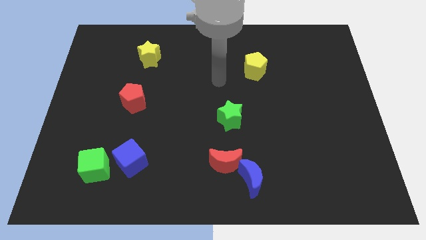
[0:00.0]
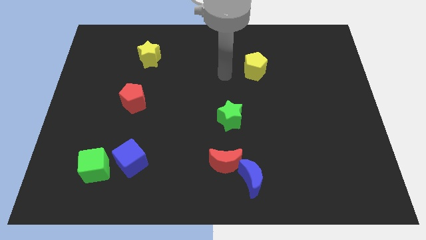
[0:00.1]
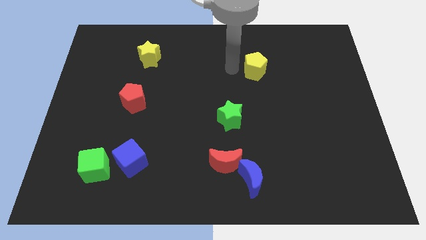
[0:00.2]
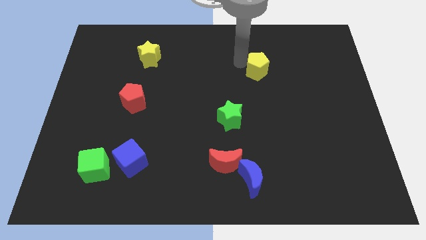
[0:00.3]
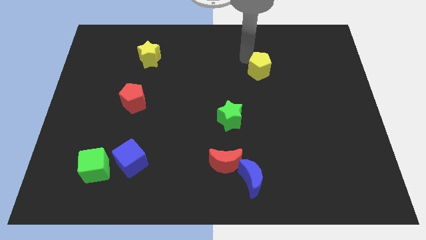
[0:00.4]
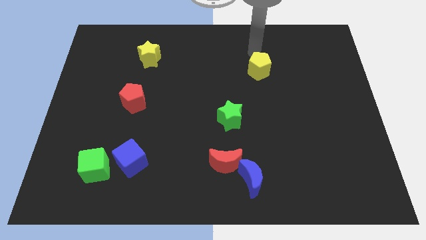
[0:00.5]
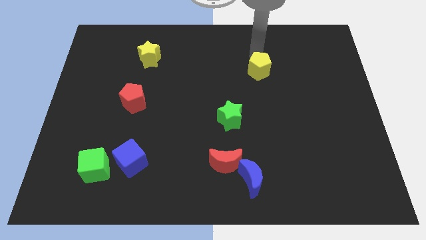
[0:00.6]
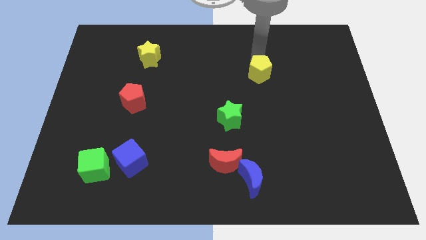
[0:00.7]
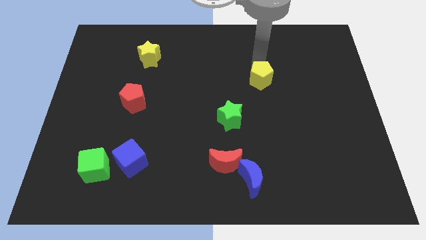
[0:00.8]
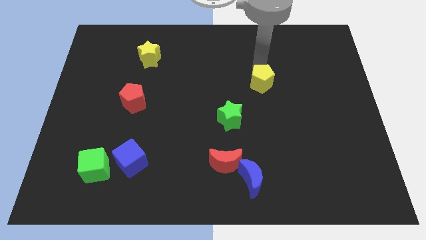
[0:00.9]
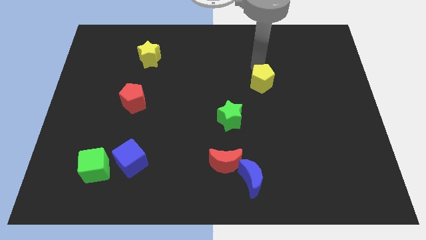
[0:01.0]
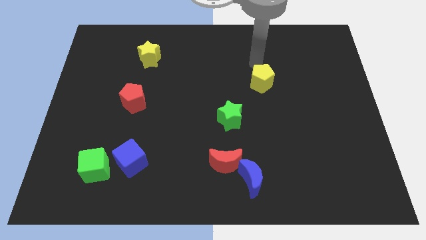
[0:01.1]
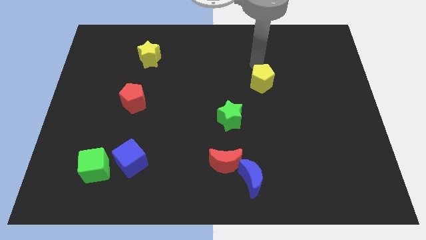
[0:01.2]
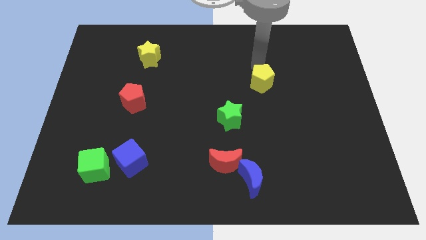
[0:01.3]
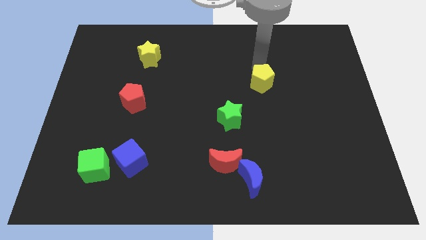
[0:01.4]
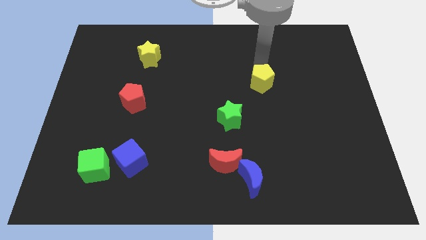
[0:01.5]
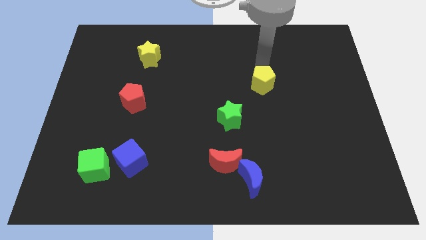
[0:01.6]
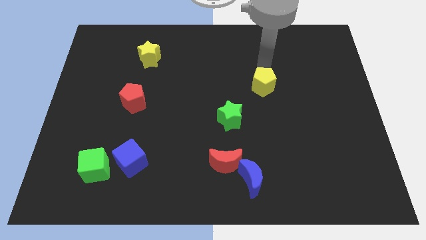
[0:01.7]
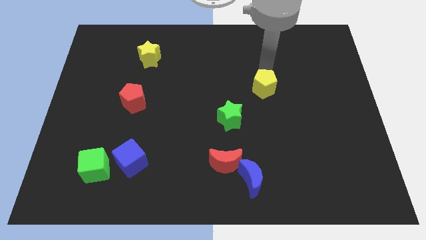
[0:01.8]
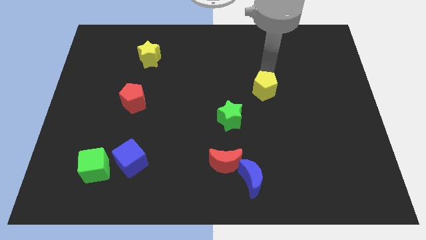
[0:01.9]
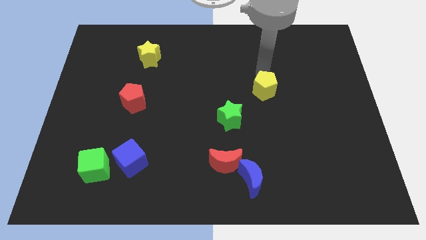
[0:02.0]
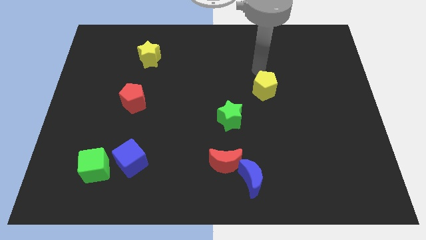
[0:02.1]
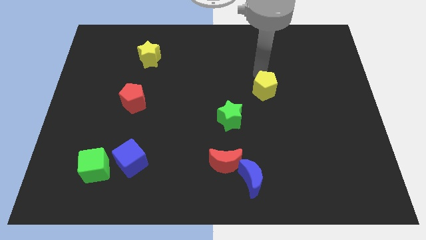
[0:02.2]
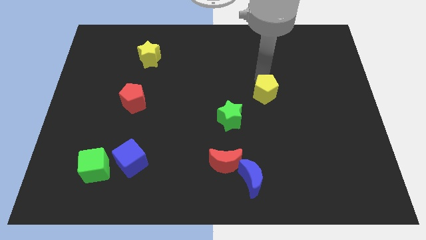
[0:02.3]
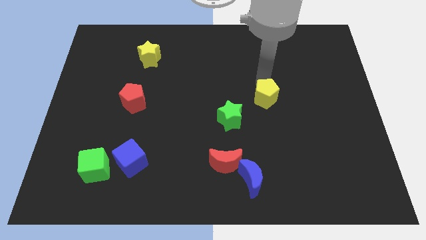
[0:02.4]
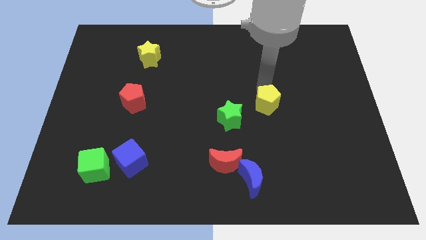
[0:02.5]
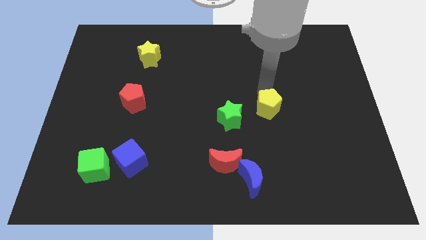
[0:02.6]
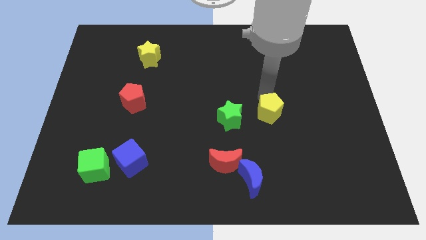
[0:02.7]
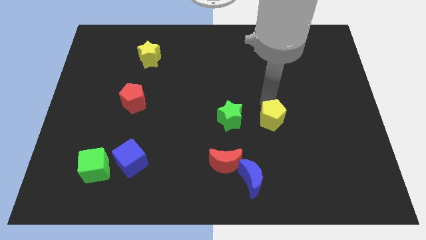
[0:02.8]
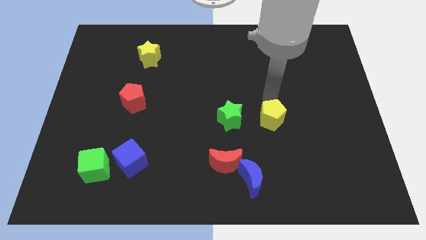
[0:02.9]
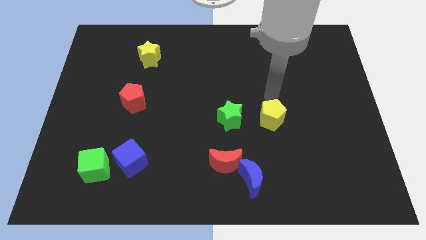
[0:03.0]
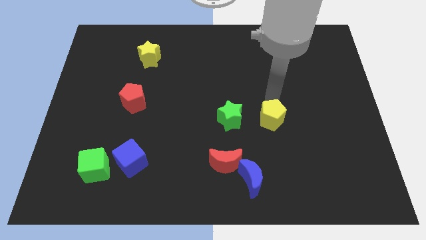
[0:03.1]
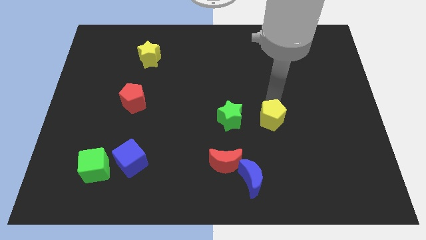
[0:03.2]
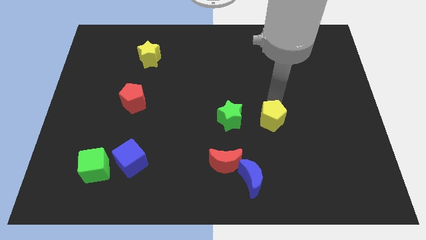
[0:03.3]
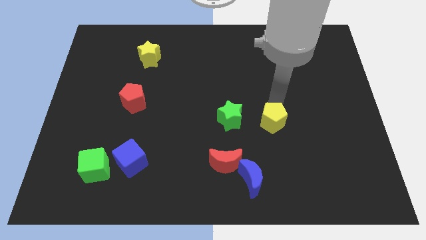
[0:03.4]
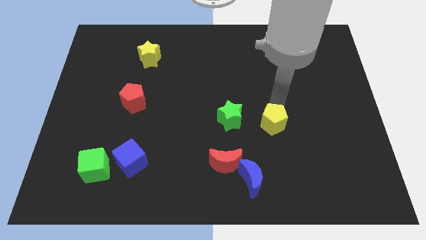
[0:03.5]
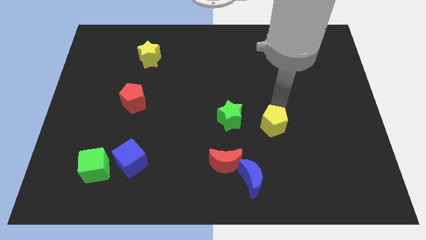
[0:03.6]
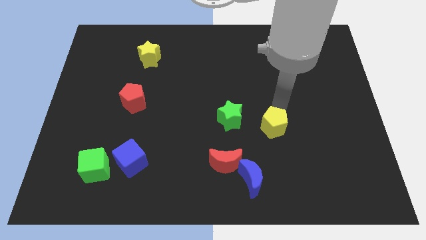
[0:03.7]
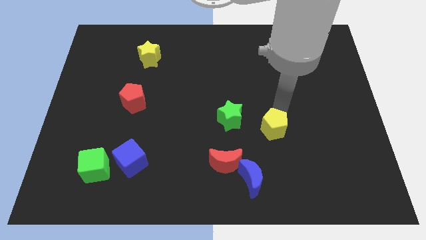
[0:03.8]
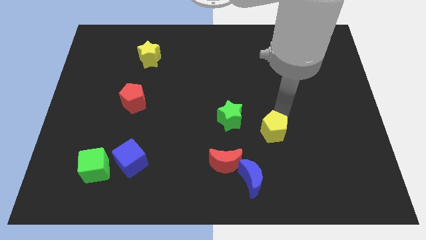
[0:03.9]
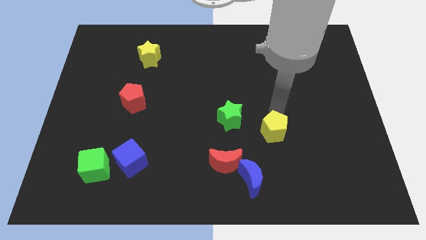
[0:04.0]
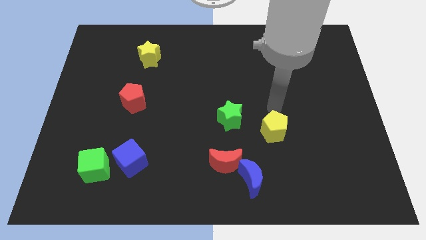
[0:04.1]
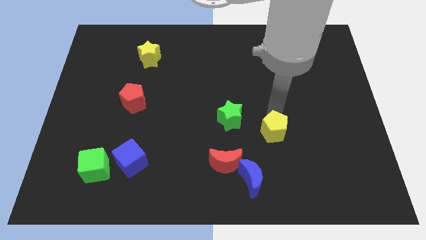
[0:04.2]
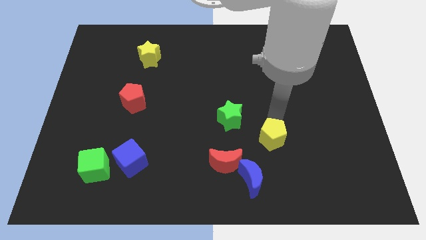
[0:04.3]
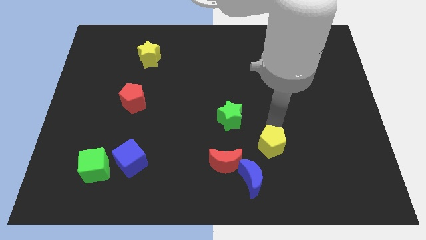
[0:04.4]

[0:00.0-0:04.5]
slide the yellow pentagon to the right of the red moon

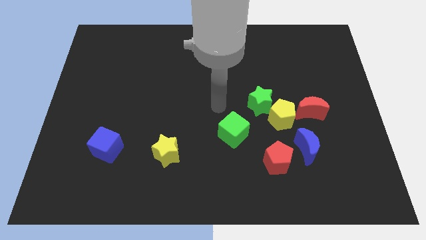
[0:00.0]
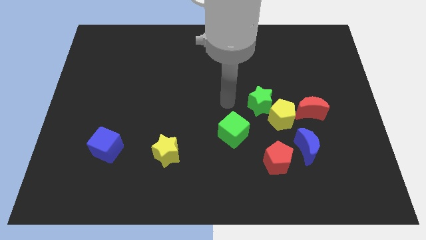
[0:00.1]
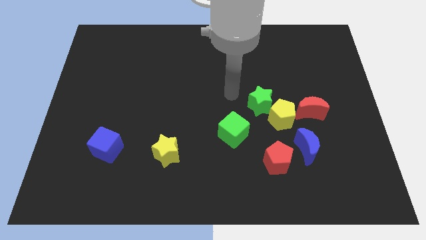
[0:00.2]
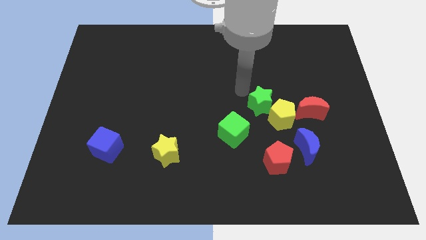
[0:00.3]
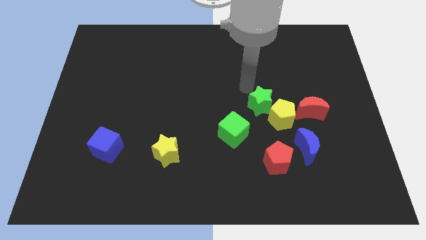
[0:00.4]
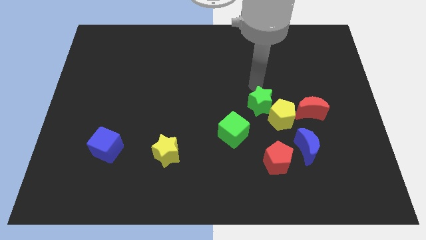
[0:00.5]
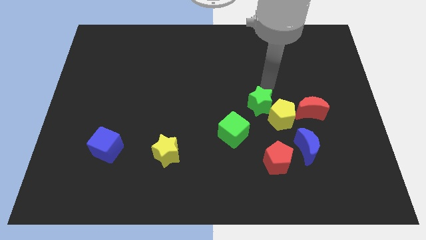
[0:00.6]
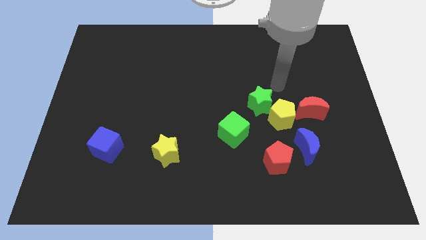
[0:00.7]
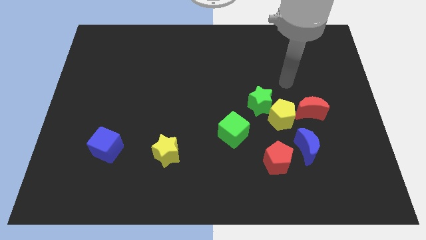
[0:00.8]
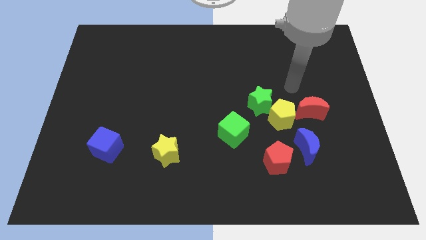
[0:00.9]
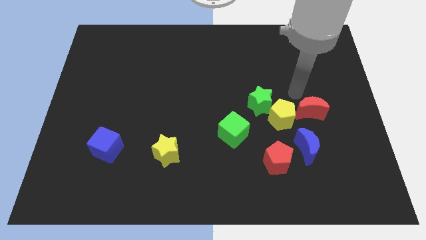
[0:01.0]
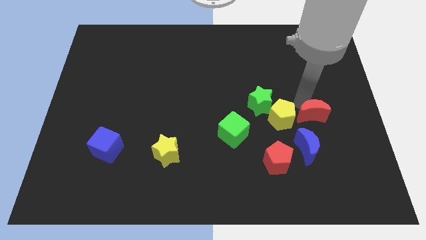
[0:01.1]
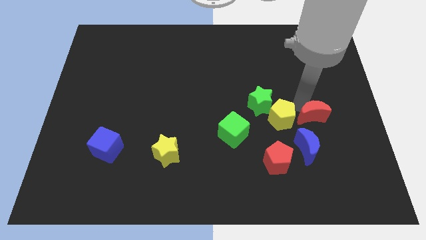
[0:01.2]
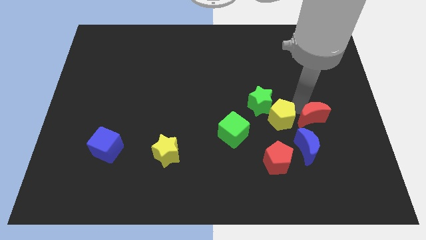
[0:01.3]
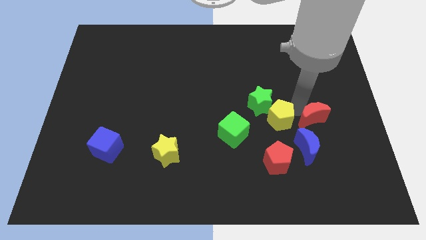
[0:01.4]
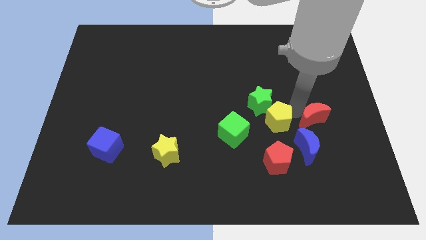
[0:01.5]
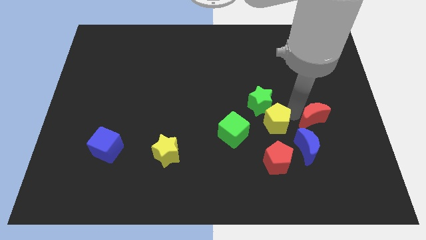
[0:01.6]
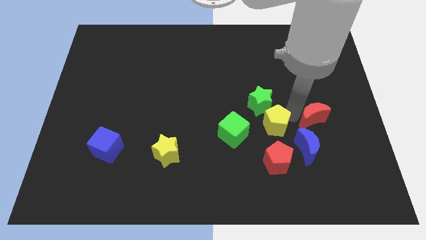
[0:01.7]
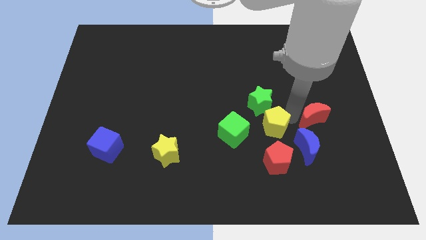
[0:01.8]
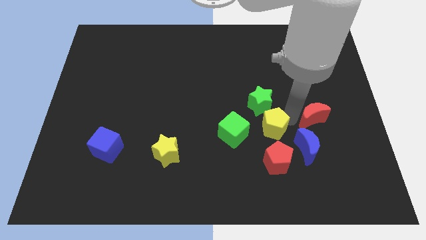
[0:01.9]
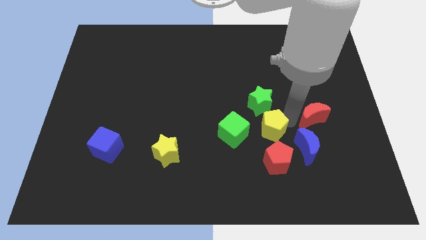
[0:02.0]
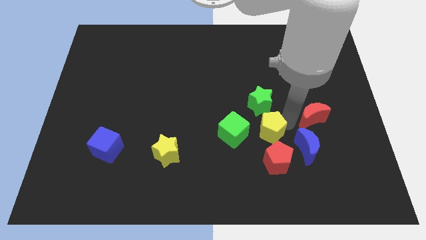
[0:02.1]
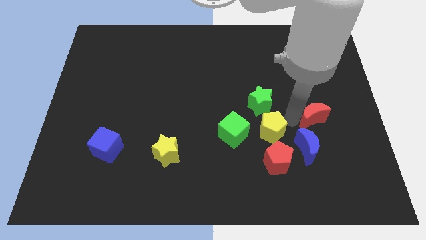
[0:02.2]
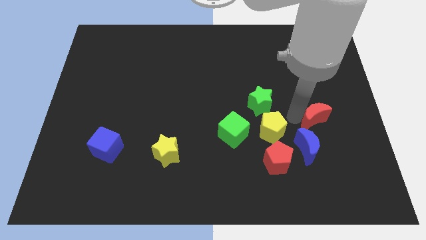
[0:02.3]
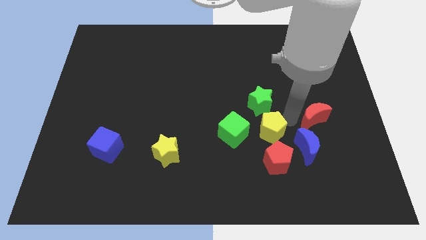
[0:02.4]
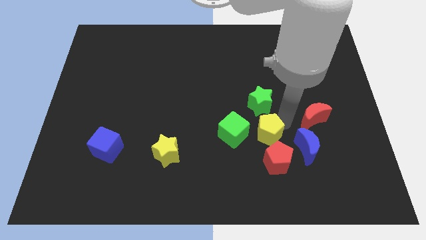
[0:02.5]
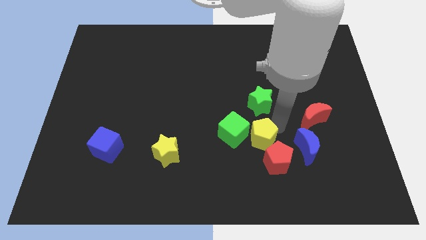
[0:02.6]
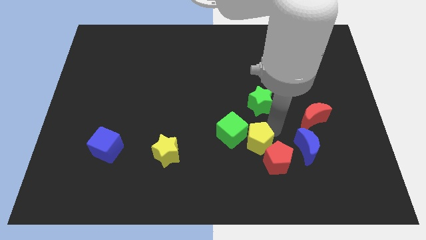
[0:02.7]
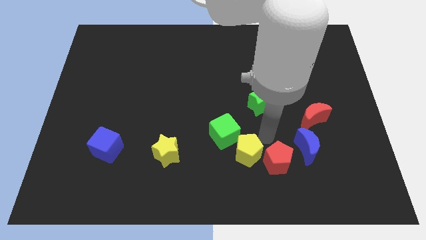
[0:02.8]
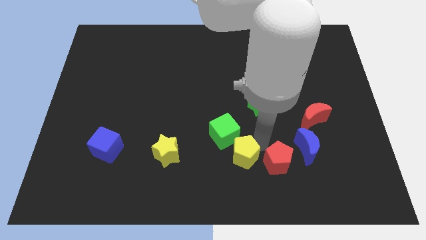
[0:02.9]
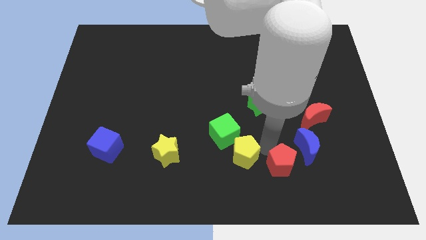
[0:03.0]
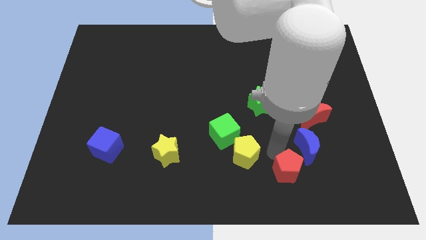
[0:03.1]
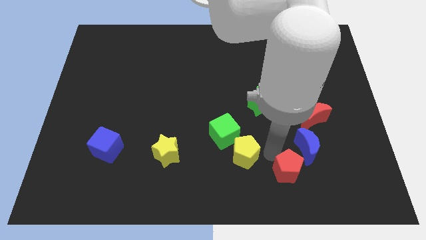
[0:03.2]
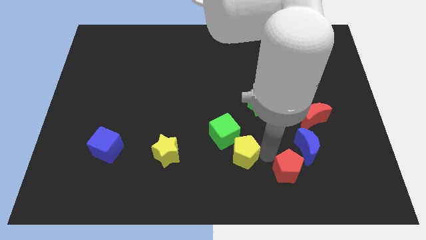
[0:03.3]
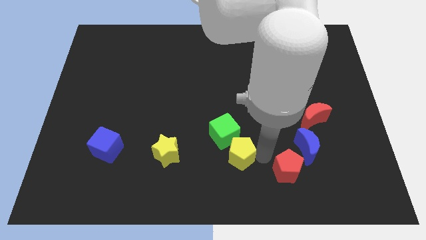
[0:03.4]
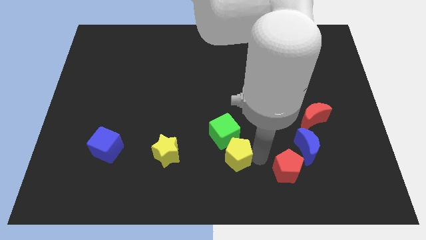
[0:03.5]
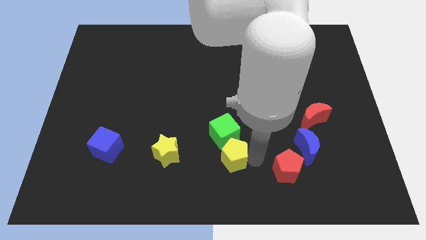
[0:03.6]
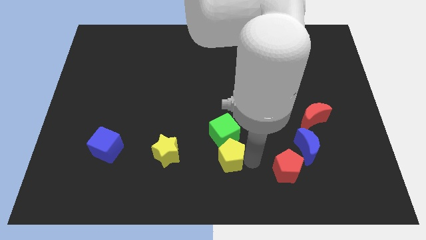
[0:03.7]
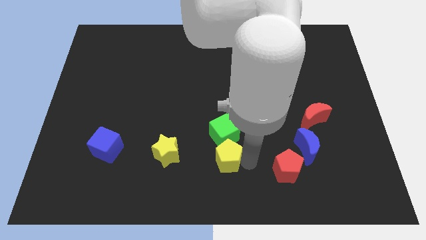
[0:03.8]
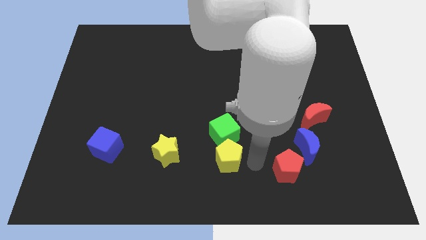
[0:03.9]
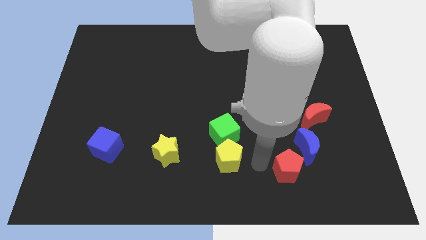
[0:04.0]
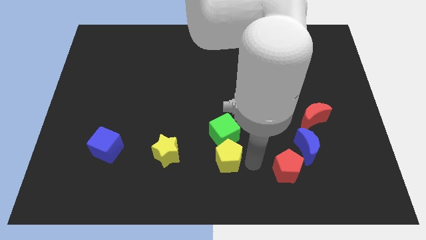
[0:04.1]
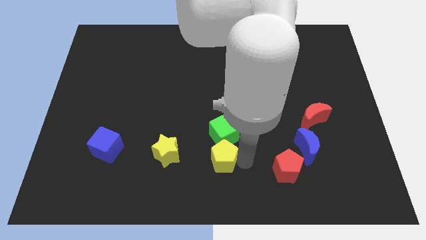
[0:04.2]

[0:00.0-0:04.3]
slide the yellow pentagon to the bottom left side of the green cube
